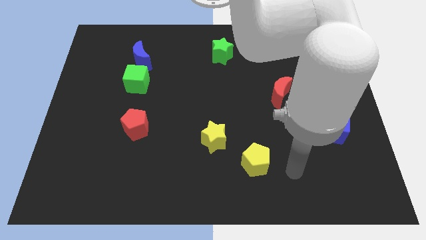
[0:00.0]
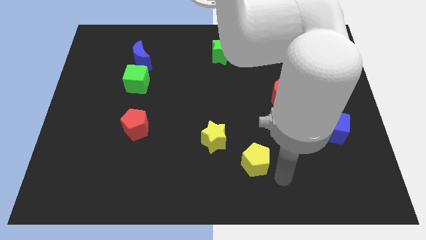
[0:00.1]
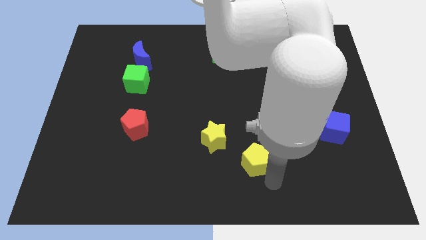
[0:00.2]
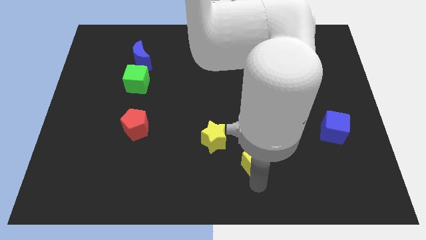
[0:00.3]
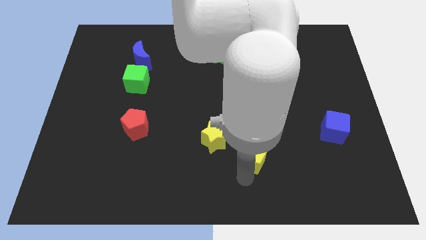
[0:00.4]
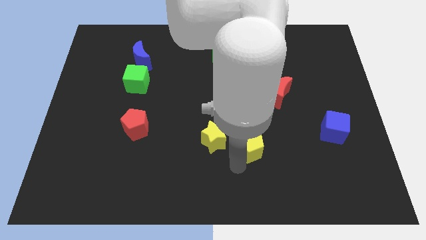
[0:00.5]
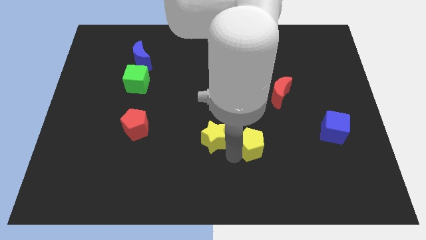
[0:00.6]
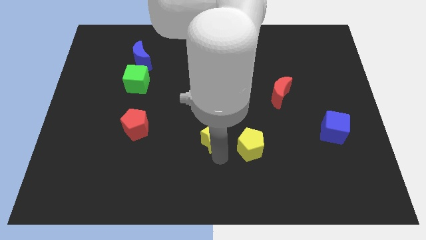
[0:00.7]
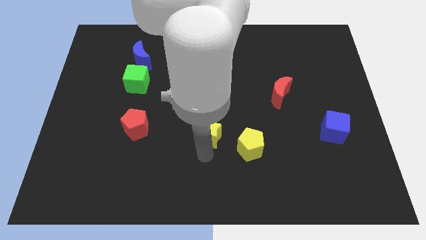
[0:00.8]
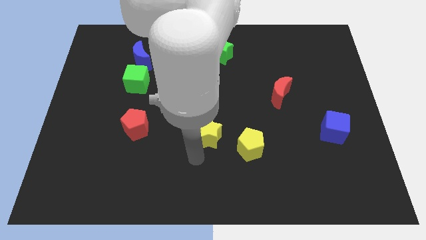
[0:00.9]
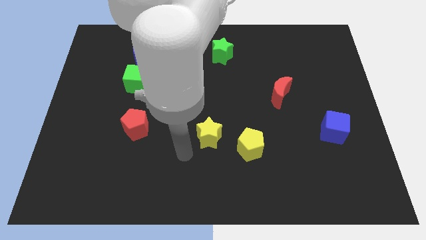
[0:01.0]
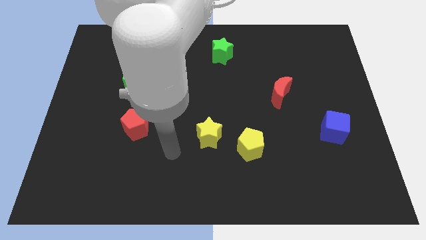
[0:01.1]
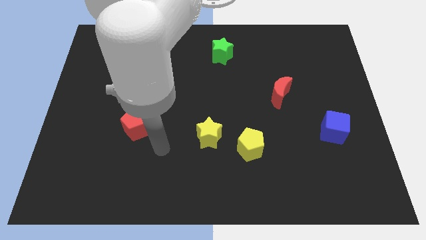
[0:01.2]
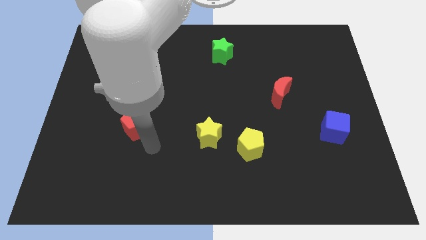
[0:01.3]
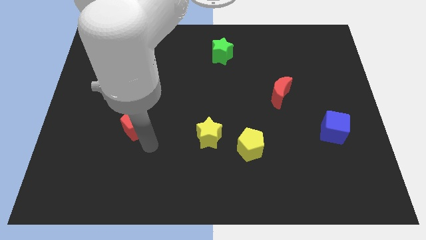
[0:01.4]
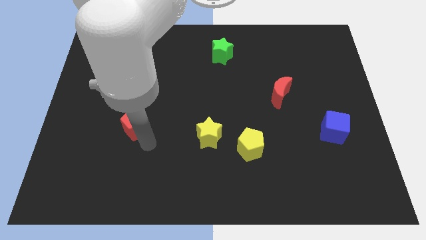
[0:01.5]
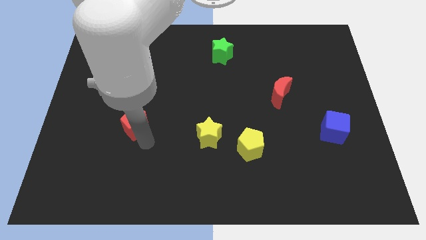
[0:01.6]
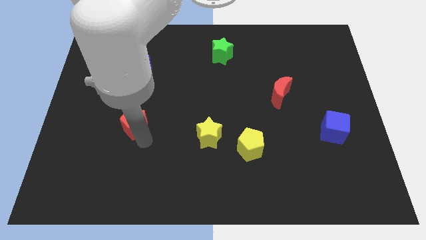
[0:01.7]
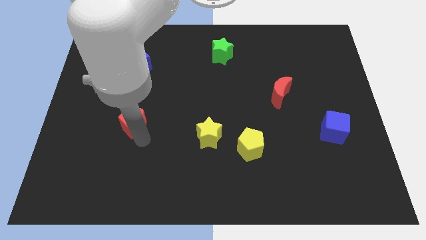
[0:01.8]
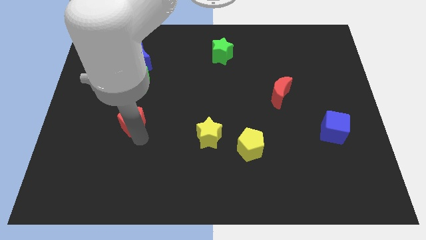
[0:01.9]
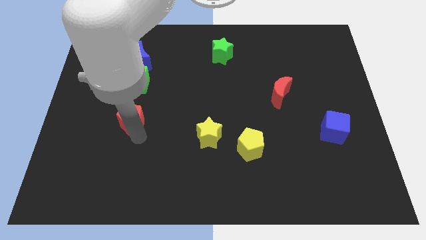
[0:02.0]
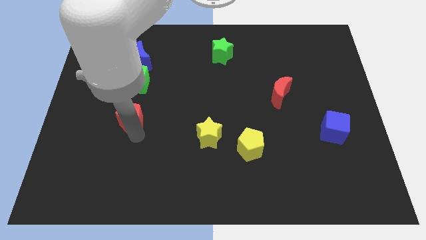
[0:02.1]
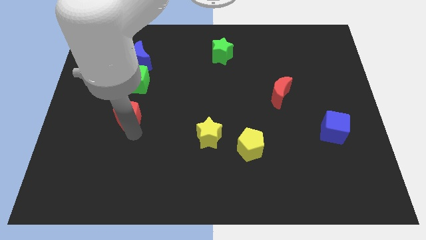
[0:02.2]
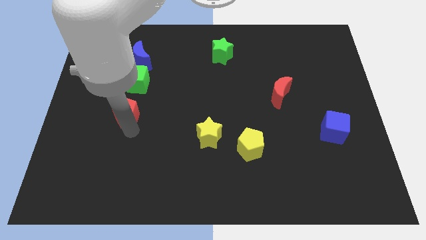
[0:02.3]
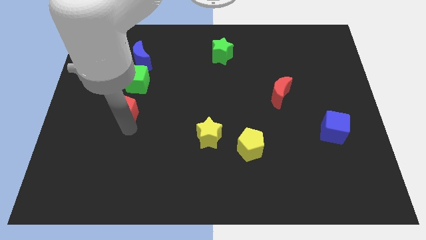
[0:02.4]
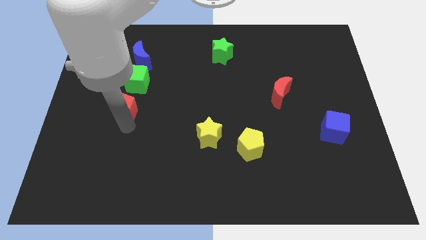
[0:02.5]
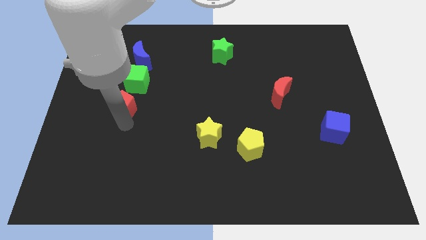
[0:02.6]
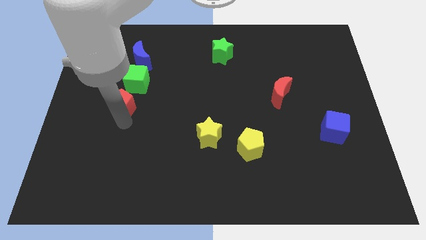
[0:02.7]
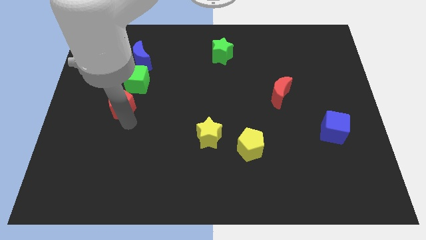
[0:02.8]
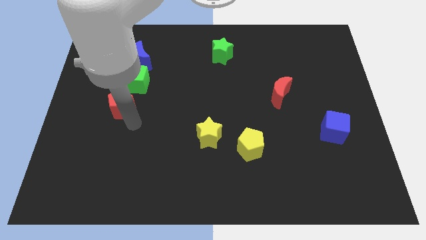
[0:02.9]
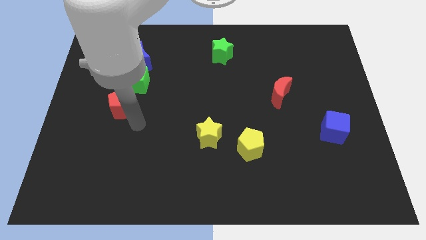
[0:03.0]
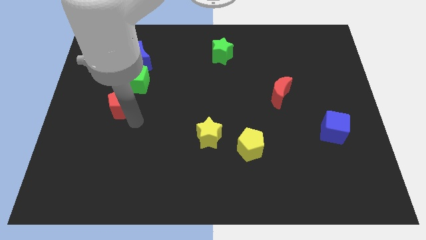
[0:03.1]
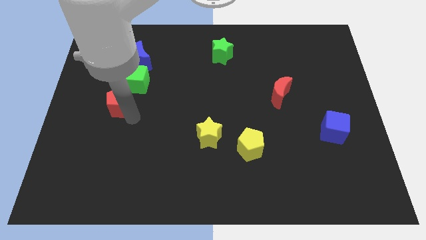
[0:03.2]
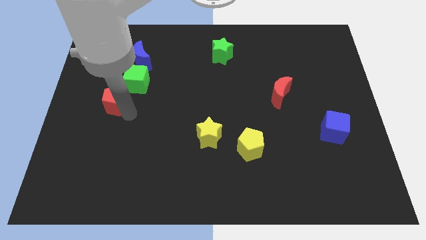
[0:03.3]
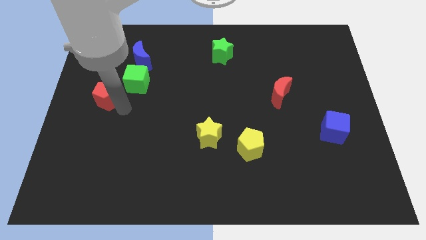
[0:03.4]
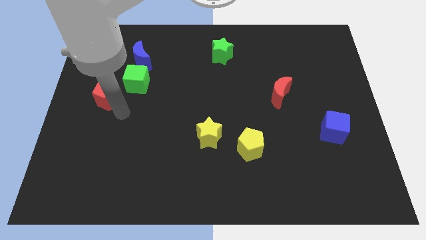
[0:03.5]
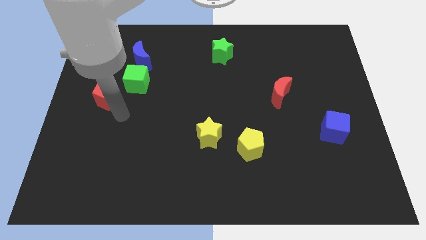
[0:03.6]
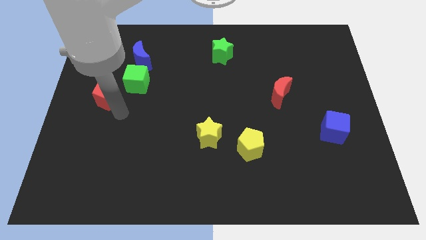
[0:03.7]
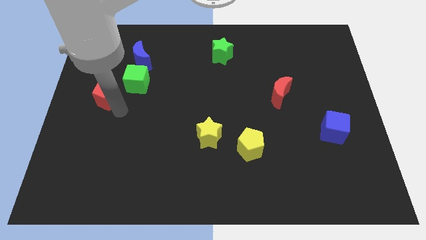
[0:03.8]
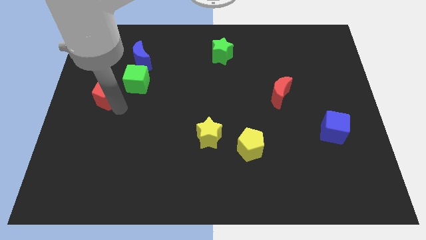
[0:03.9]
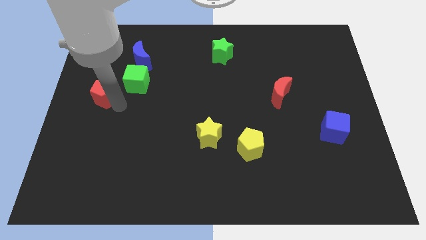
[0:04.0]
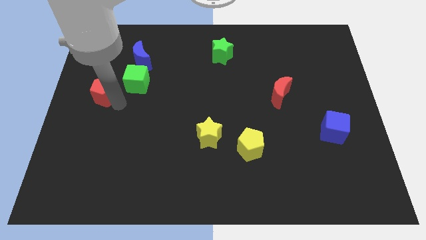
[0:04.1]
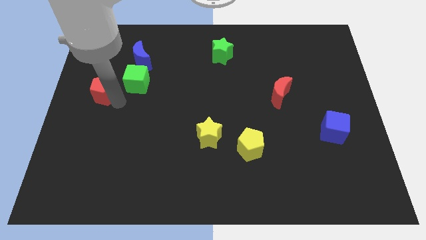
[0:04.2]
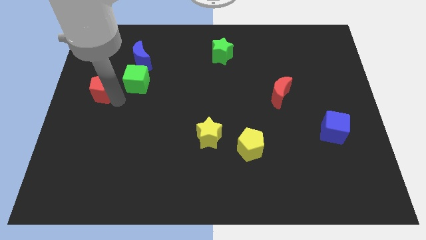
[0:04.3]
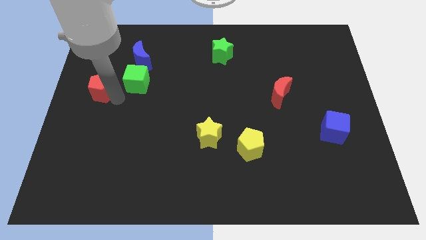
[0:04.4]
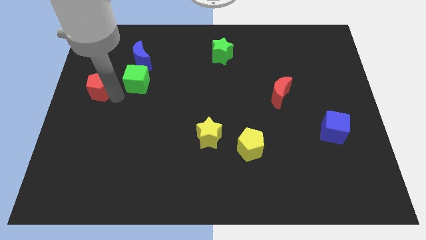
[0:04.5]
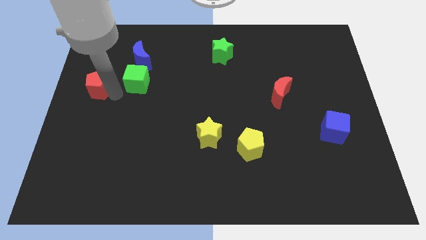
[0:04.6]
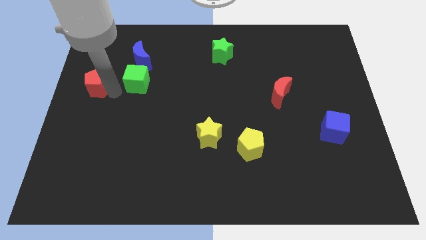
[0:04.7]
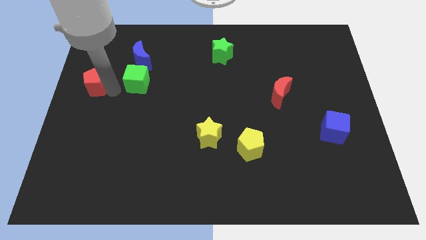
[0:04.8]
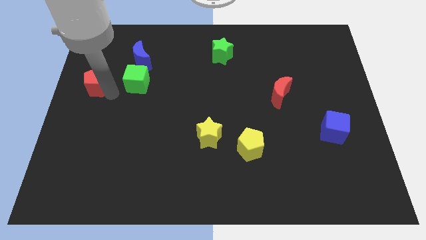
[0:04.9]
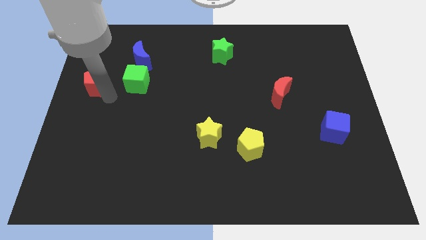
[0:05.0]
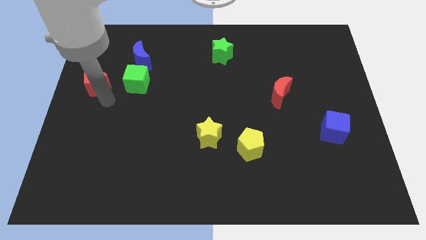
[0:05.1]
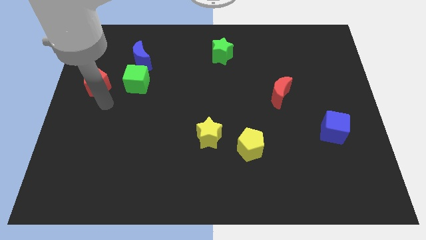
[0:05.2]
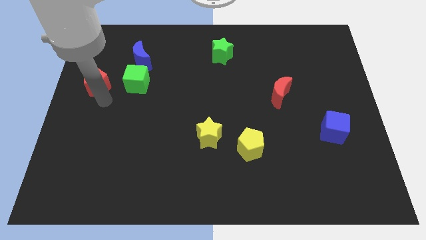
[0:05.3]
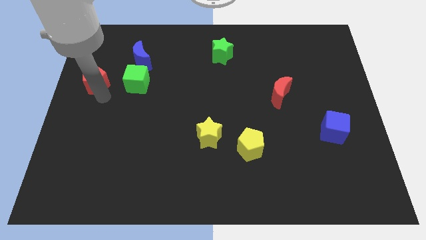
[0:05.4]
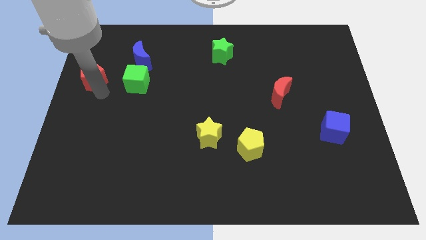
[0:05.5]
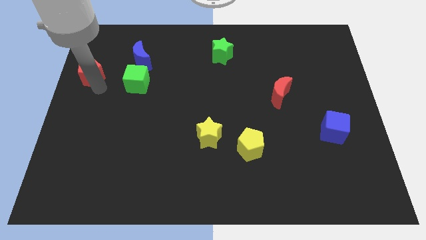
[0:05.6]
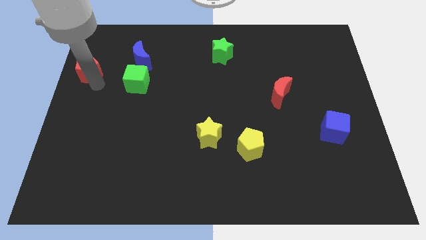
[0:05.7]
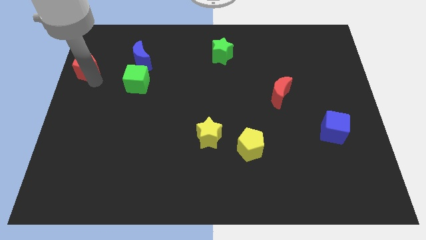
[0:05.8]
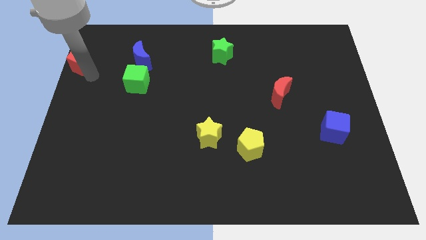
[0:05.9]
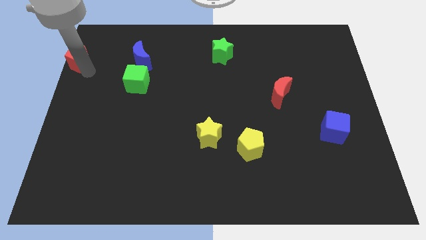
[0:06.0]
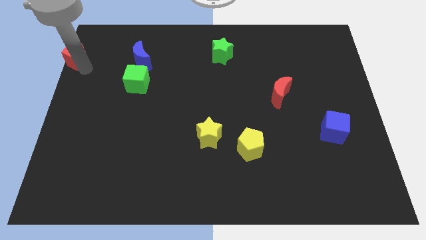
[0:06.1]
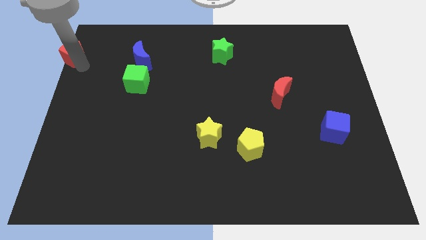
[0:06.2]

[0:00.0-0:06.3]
put the red pentagon to the top left

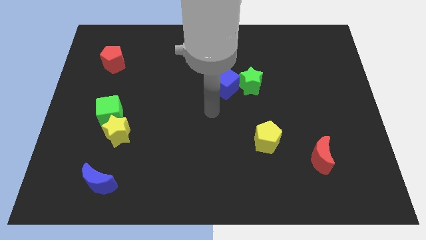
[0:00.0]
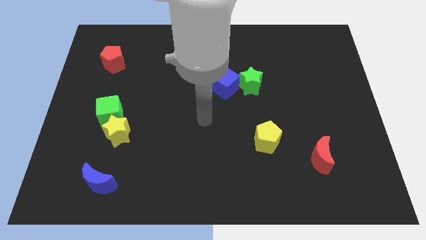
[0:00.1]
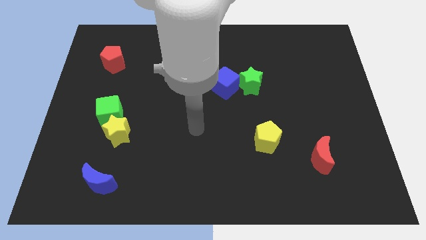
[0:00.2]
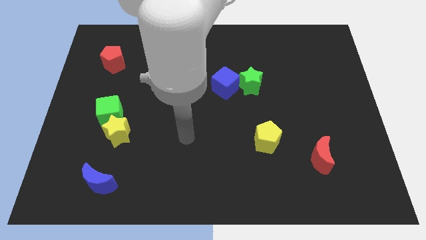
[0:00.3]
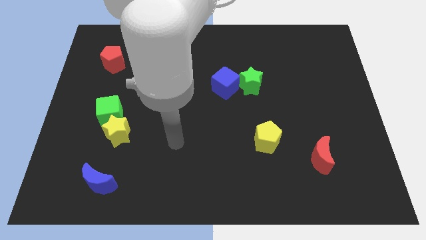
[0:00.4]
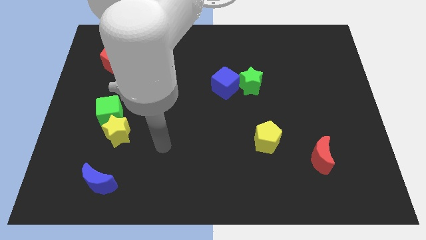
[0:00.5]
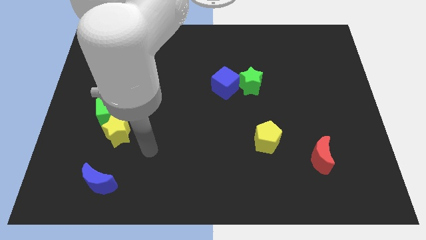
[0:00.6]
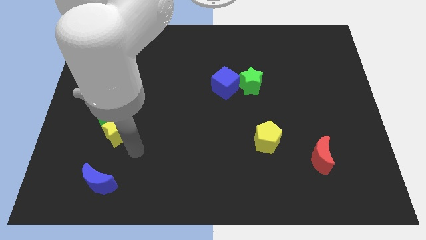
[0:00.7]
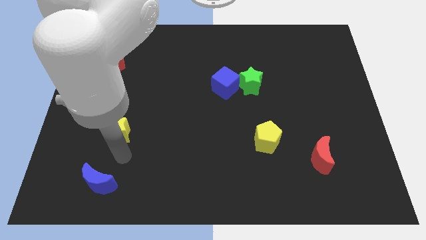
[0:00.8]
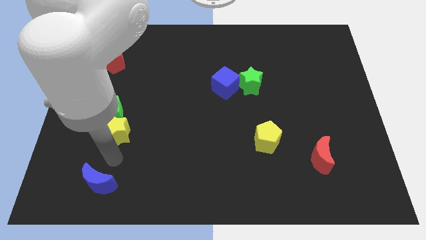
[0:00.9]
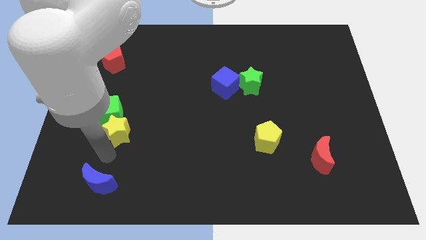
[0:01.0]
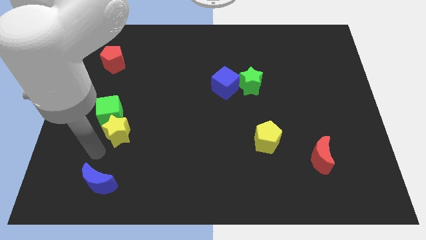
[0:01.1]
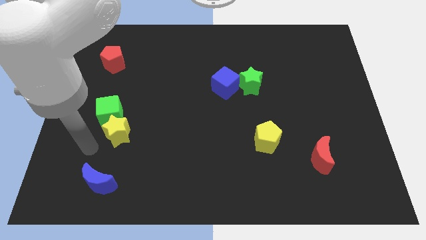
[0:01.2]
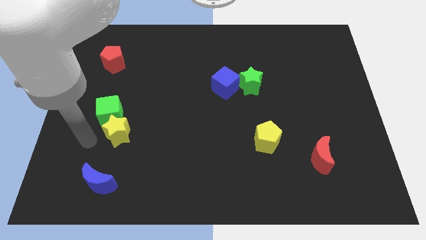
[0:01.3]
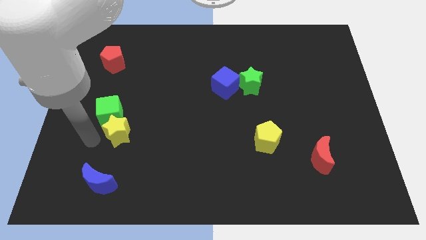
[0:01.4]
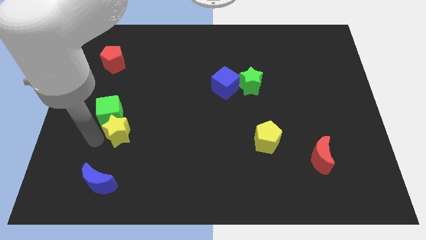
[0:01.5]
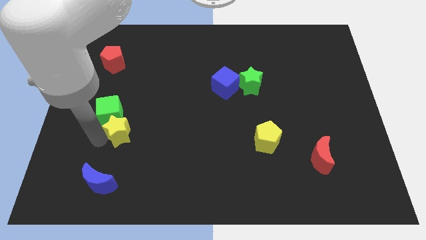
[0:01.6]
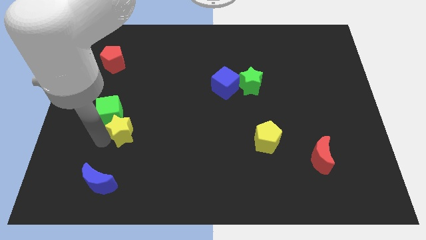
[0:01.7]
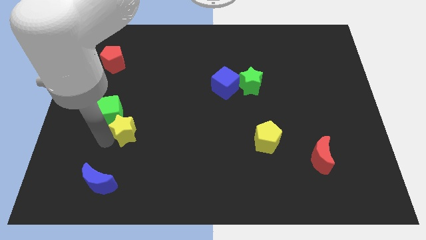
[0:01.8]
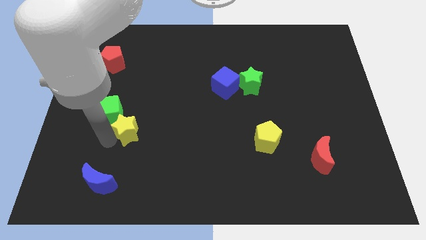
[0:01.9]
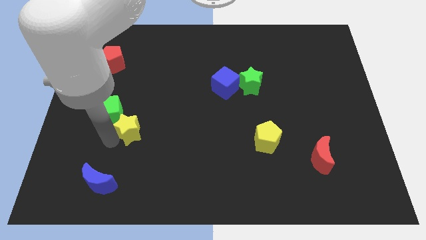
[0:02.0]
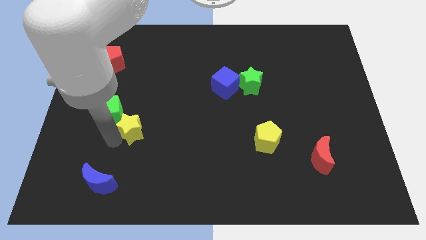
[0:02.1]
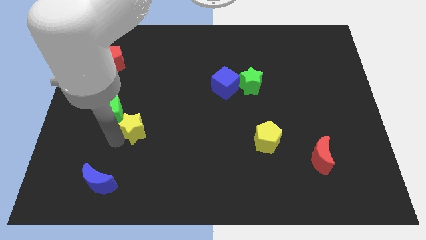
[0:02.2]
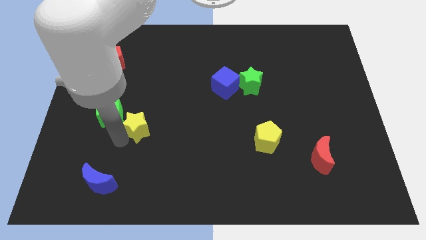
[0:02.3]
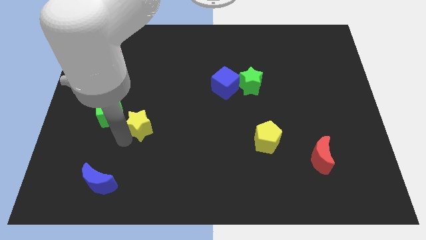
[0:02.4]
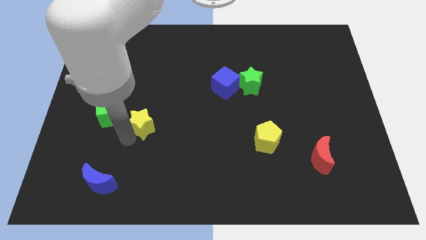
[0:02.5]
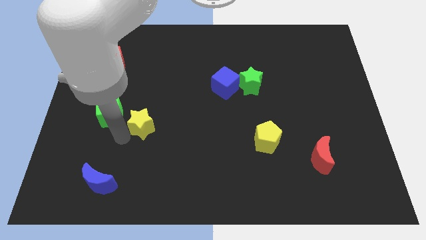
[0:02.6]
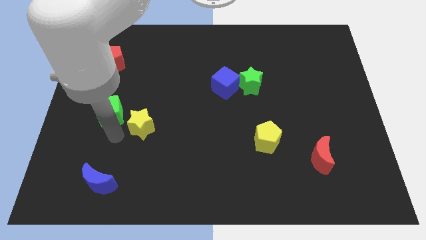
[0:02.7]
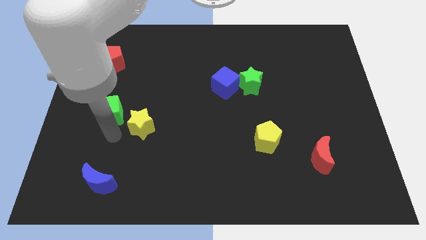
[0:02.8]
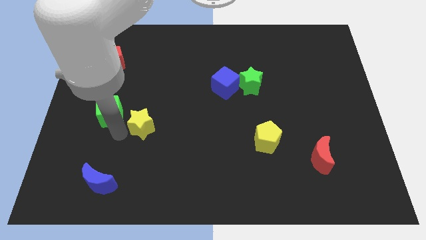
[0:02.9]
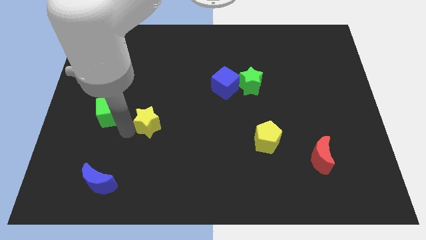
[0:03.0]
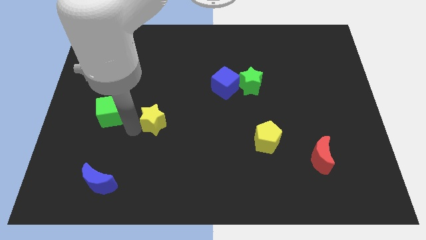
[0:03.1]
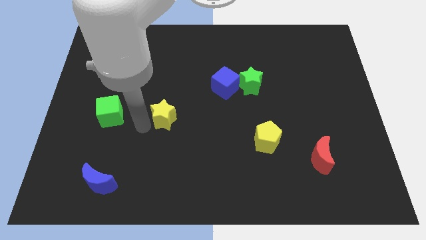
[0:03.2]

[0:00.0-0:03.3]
push the yellow star to the middle of the board
